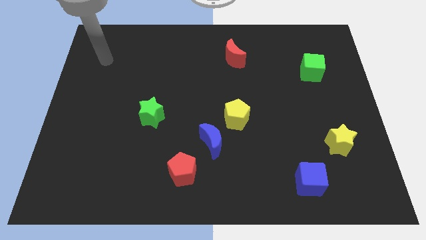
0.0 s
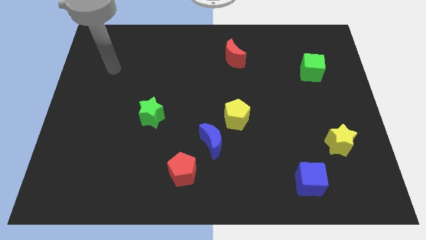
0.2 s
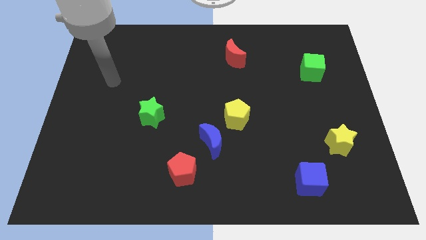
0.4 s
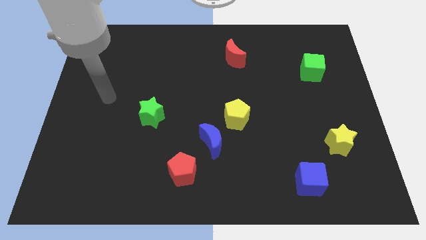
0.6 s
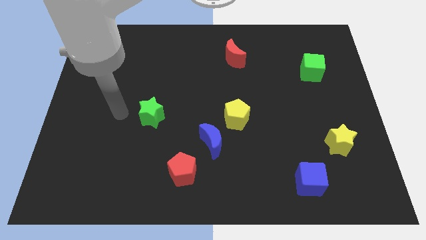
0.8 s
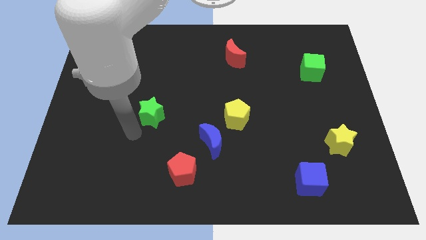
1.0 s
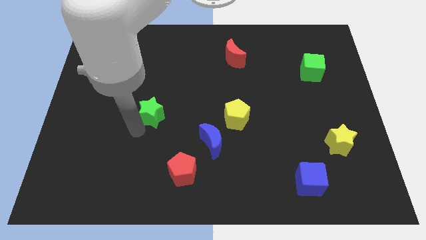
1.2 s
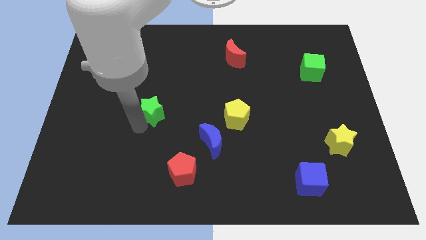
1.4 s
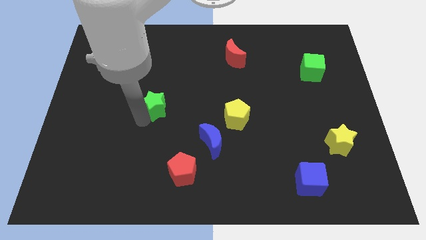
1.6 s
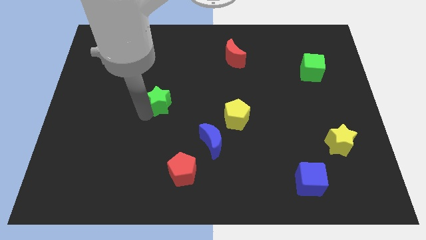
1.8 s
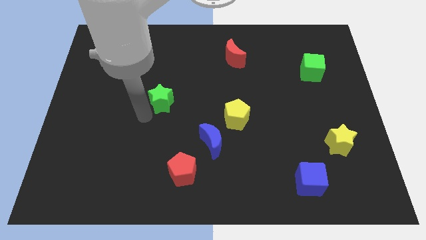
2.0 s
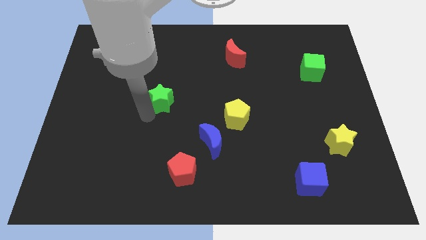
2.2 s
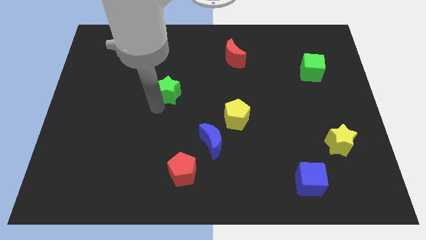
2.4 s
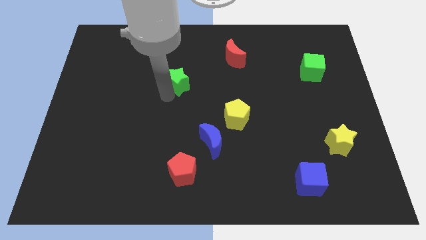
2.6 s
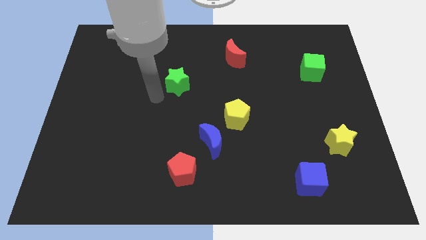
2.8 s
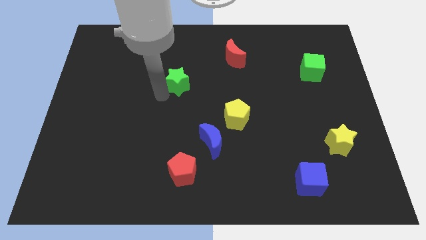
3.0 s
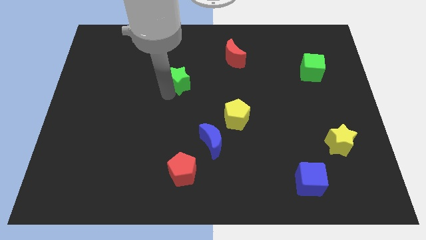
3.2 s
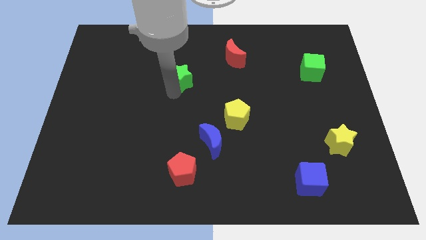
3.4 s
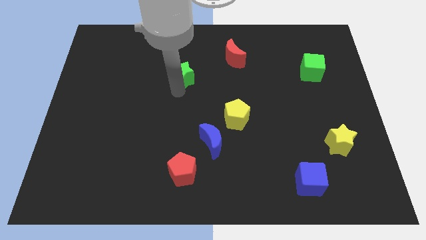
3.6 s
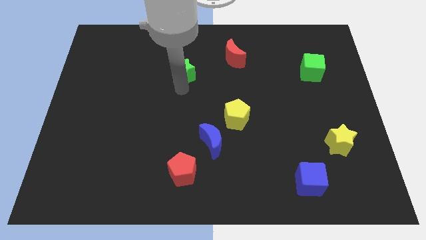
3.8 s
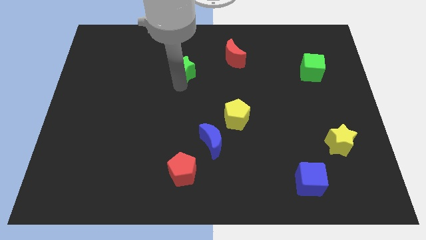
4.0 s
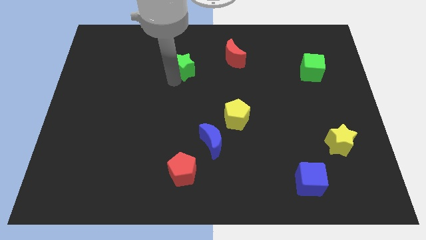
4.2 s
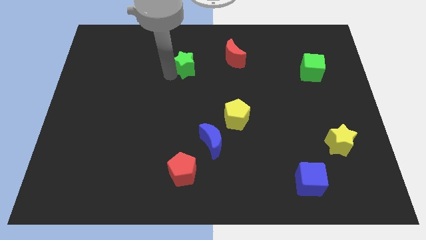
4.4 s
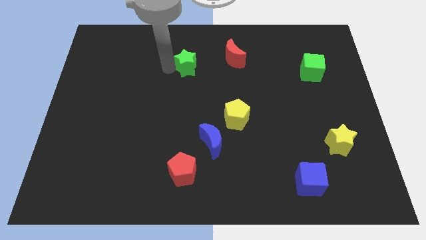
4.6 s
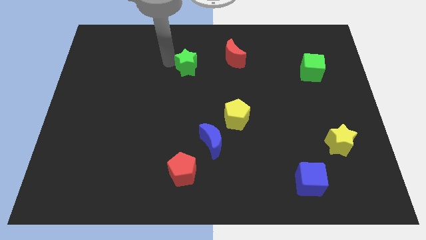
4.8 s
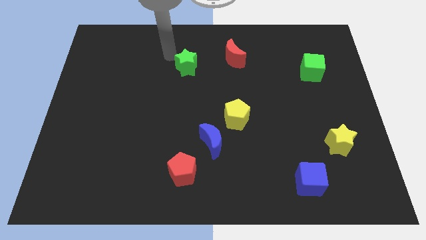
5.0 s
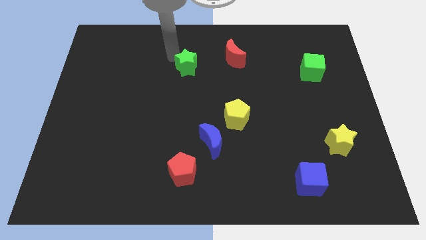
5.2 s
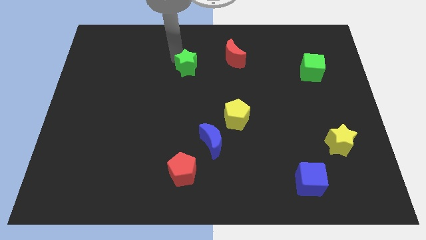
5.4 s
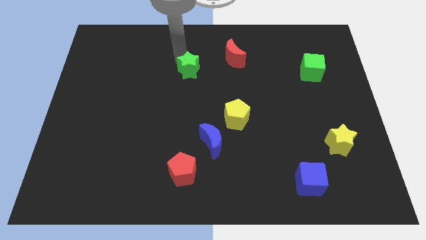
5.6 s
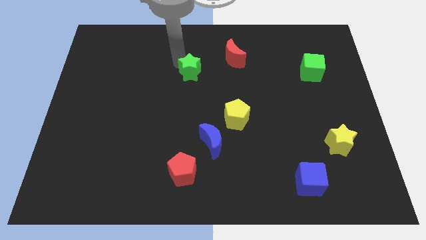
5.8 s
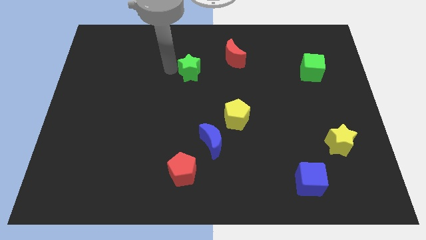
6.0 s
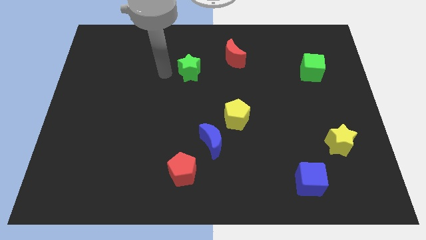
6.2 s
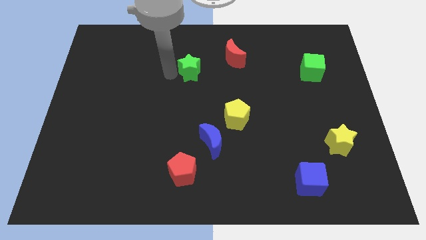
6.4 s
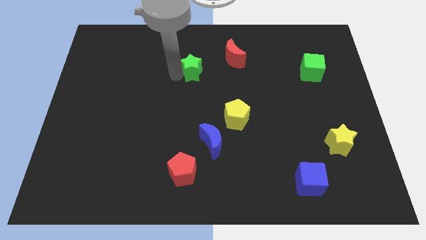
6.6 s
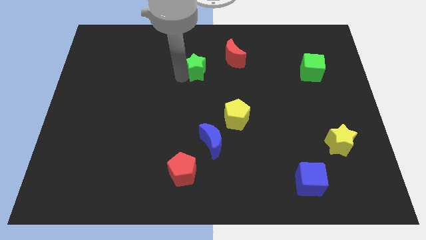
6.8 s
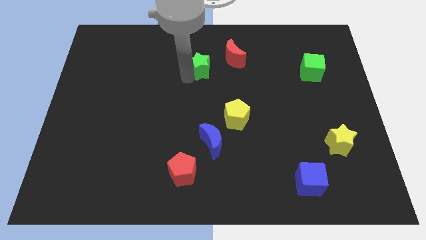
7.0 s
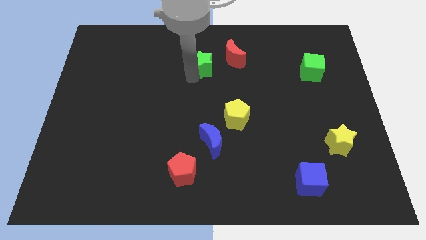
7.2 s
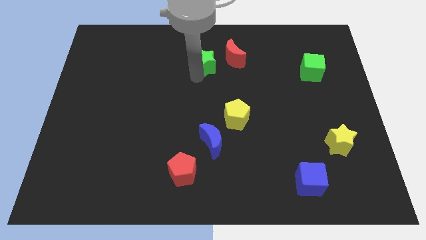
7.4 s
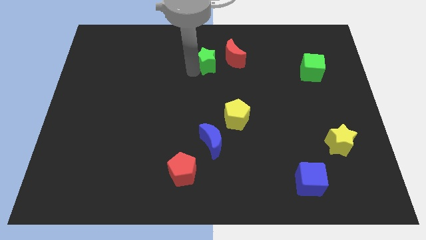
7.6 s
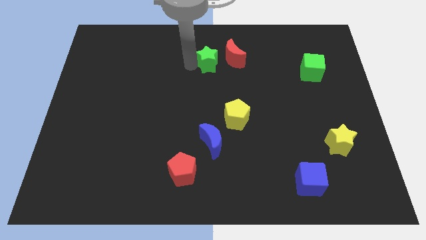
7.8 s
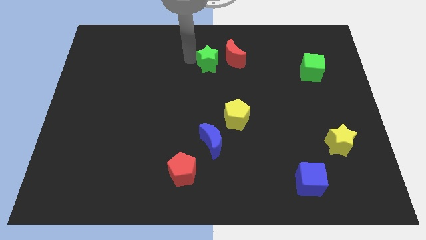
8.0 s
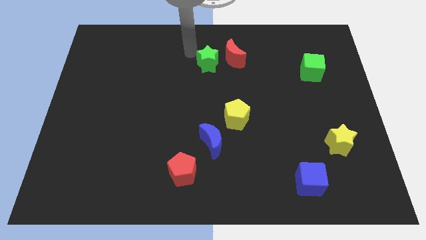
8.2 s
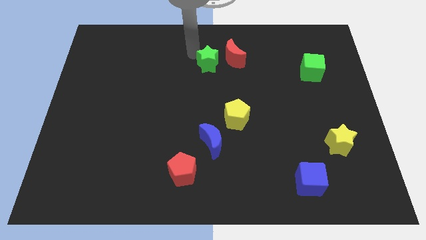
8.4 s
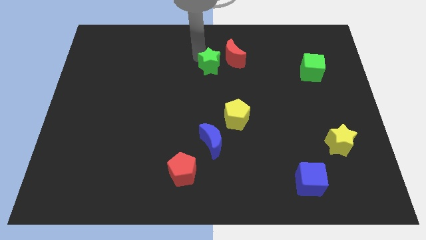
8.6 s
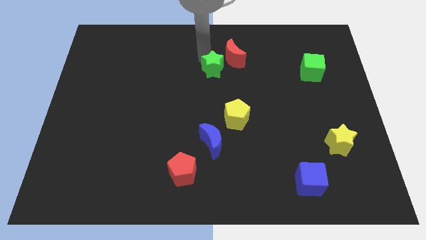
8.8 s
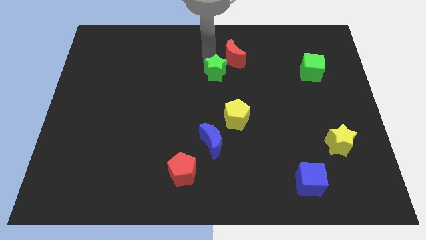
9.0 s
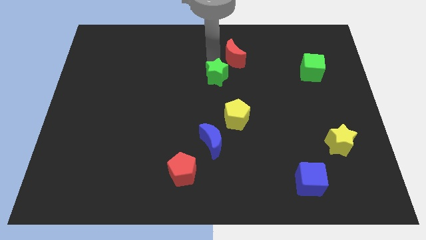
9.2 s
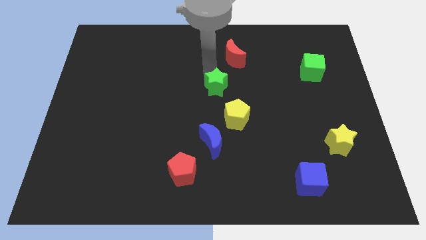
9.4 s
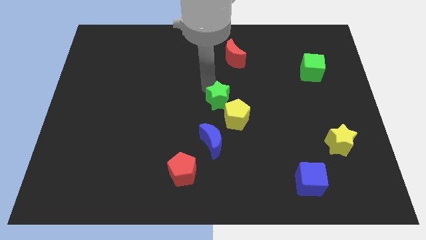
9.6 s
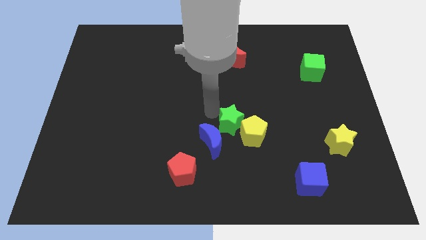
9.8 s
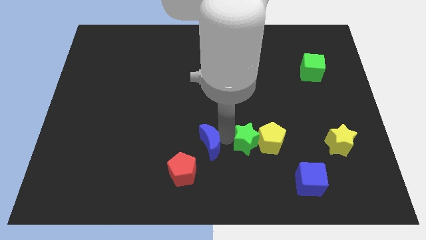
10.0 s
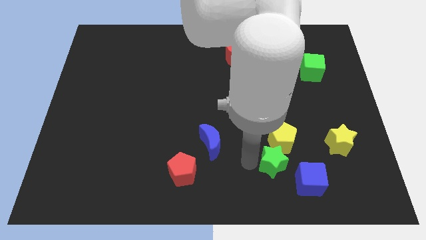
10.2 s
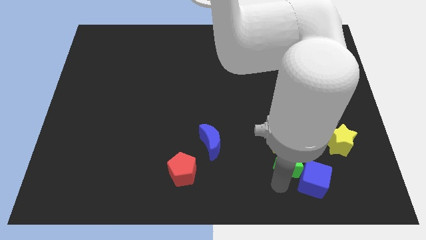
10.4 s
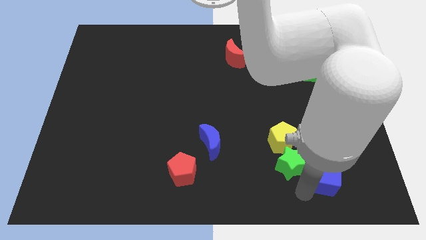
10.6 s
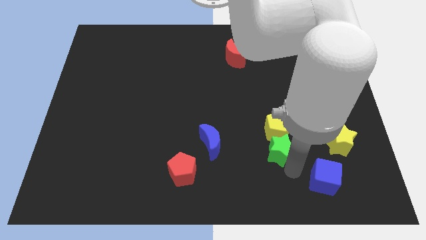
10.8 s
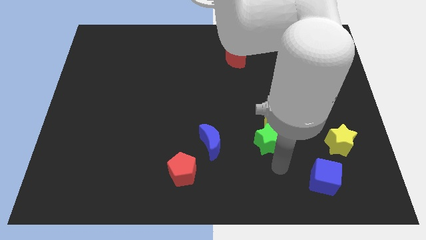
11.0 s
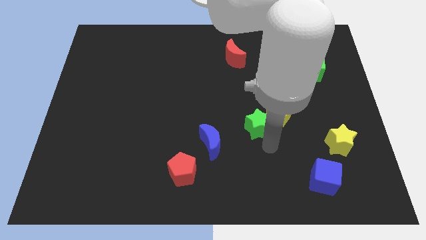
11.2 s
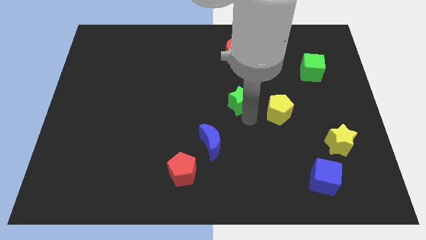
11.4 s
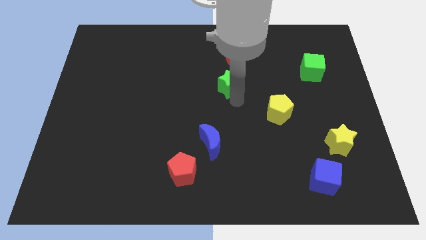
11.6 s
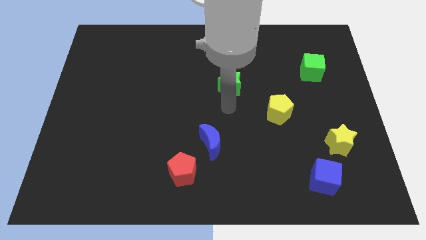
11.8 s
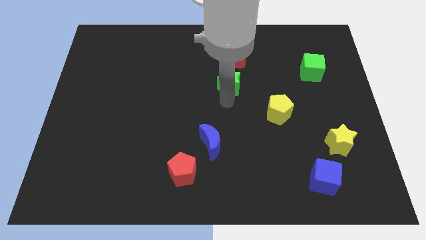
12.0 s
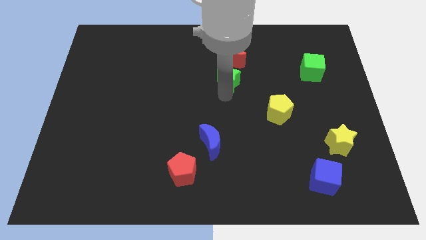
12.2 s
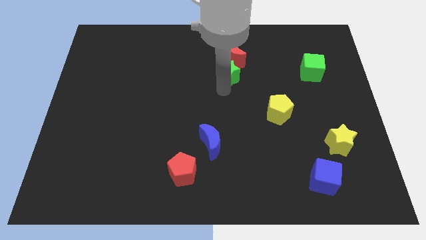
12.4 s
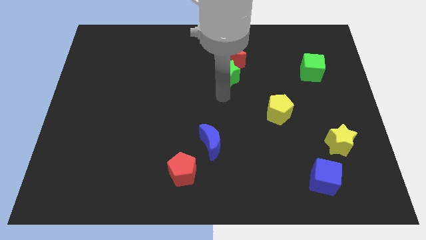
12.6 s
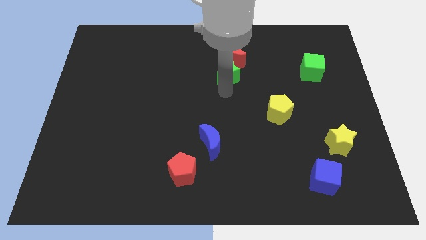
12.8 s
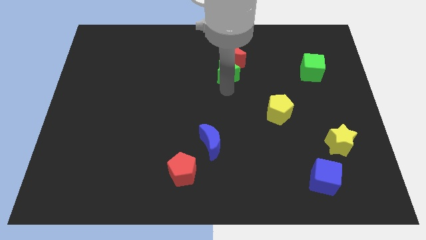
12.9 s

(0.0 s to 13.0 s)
move the green star close to the red moon

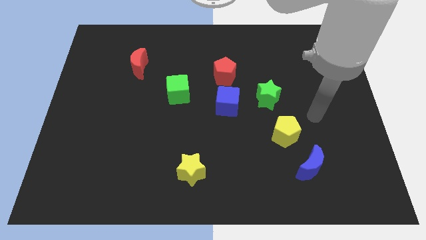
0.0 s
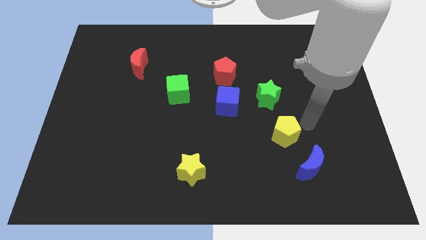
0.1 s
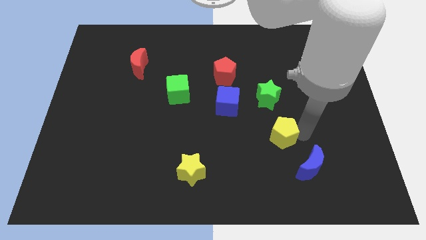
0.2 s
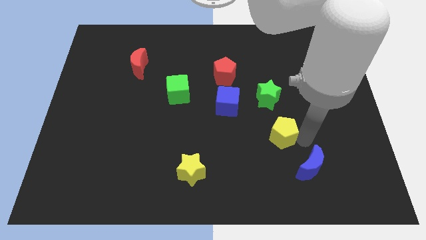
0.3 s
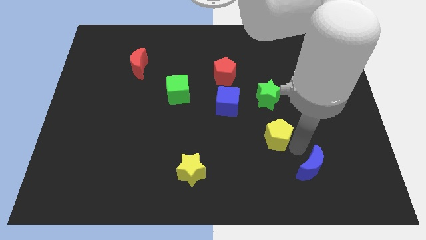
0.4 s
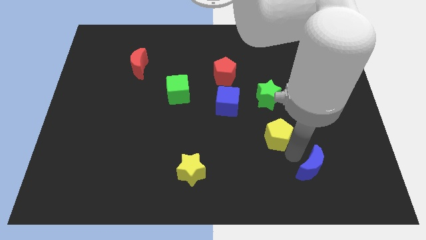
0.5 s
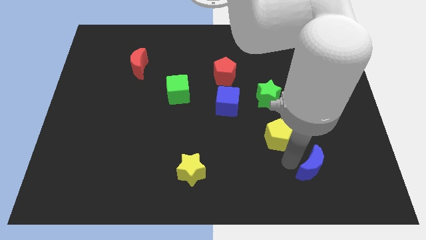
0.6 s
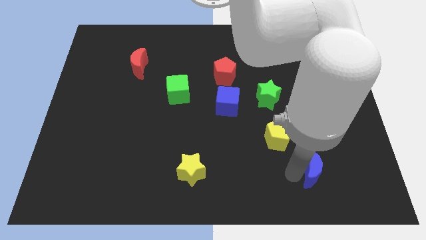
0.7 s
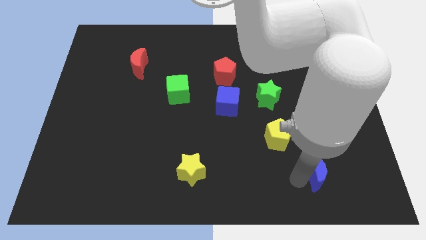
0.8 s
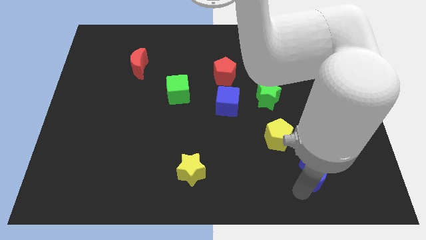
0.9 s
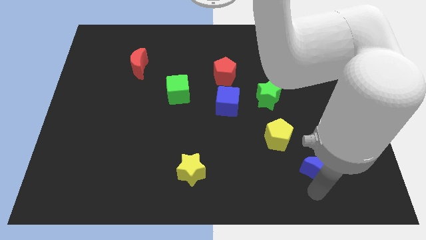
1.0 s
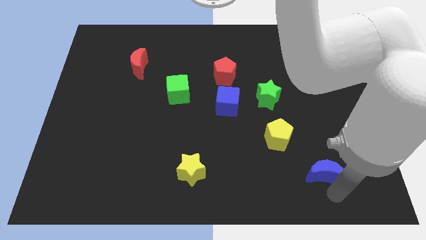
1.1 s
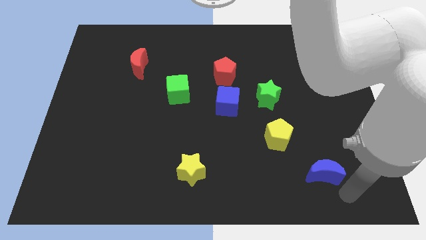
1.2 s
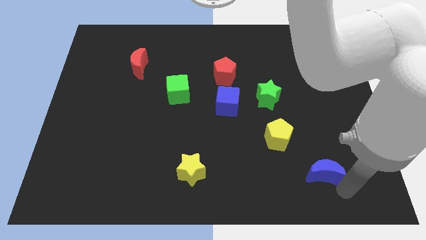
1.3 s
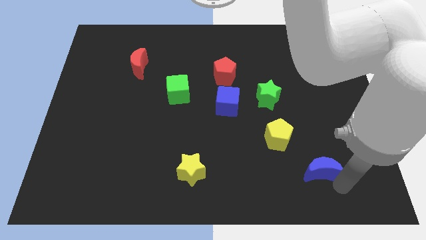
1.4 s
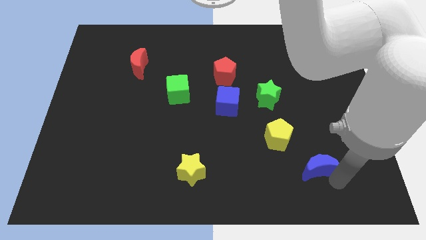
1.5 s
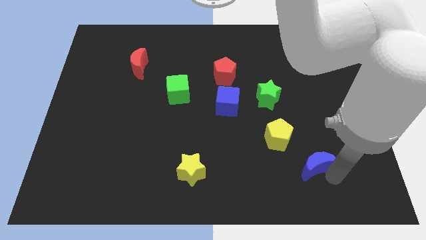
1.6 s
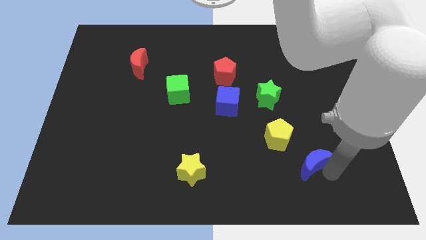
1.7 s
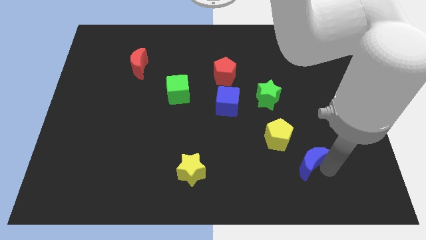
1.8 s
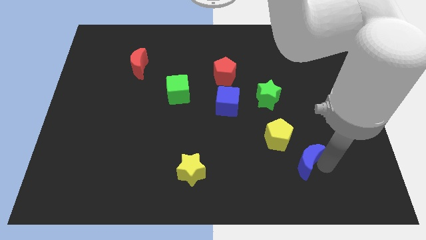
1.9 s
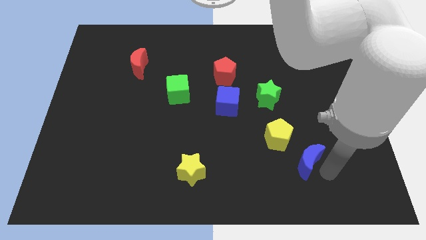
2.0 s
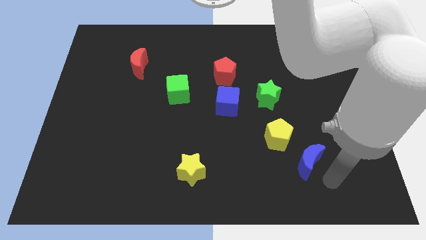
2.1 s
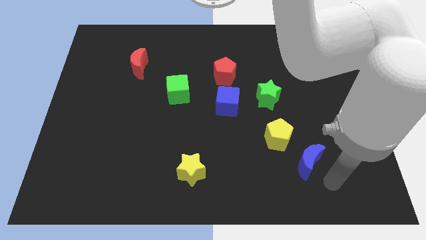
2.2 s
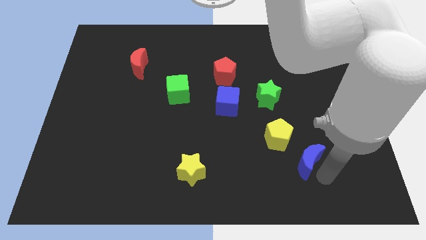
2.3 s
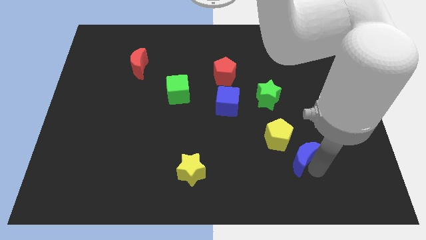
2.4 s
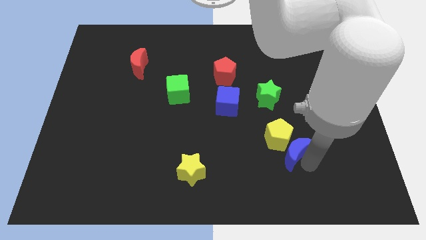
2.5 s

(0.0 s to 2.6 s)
put the blue moon to the yellow pentagon
